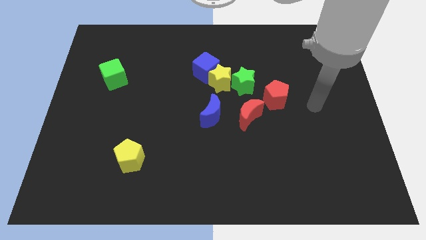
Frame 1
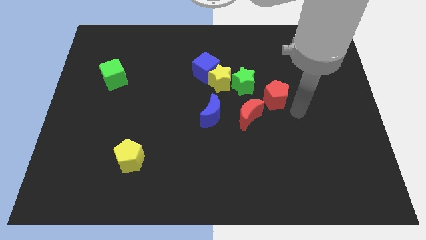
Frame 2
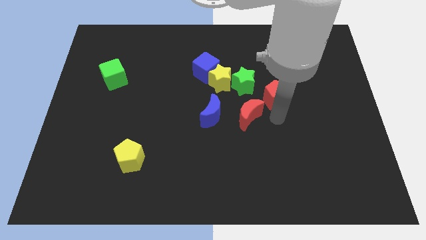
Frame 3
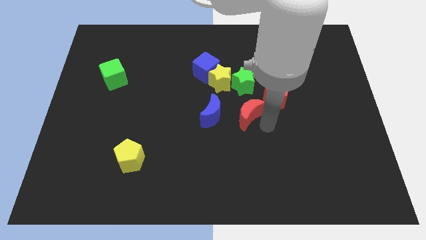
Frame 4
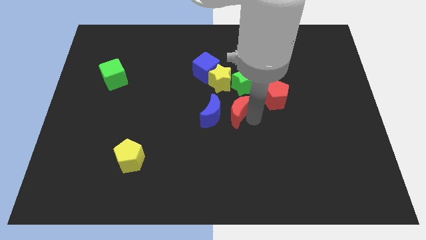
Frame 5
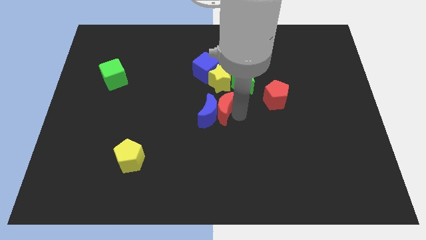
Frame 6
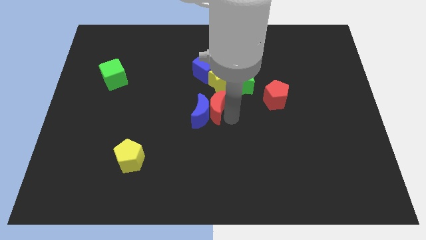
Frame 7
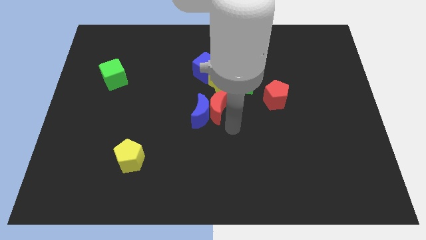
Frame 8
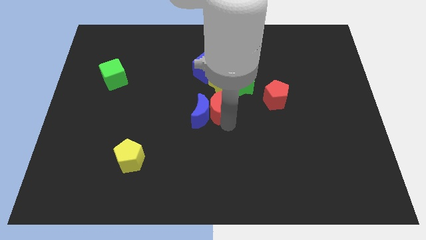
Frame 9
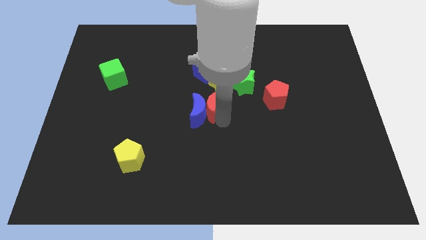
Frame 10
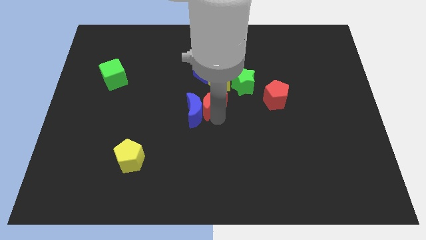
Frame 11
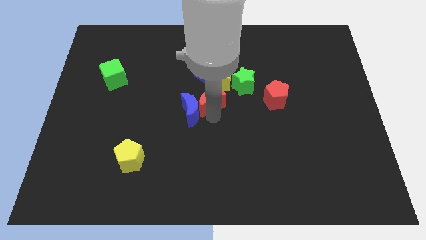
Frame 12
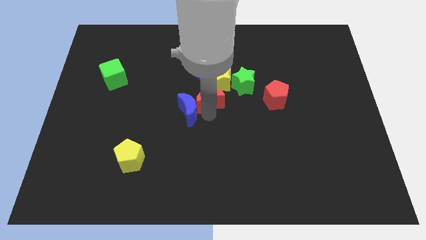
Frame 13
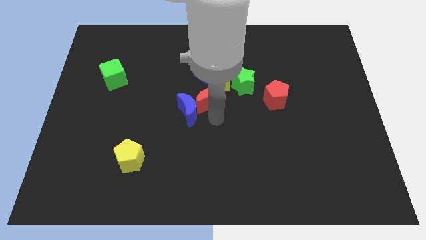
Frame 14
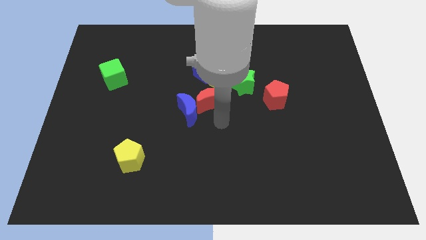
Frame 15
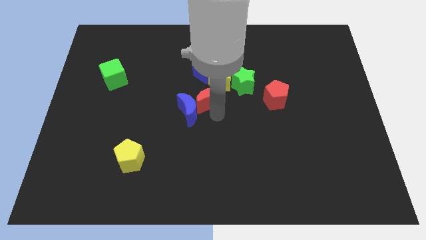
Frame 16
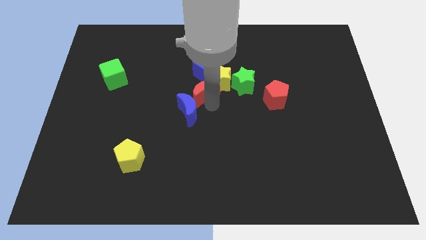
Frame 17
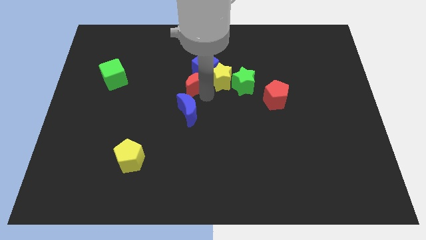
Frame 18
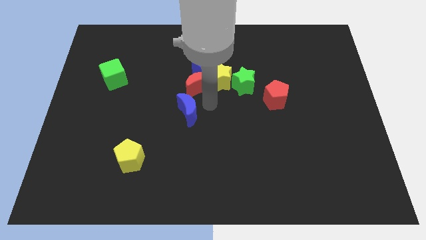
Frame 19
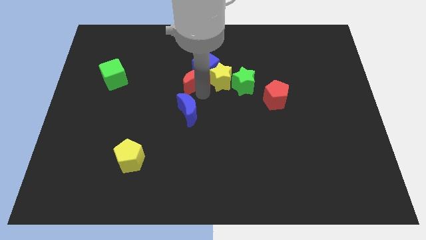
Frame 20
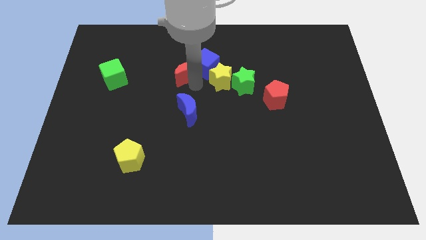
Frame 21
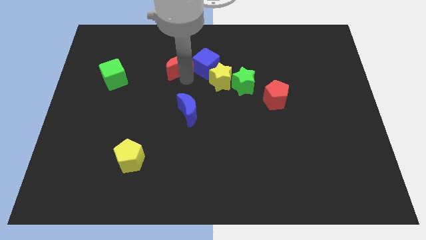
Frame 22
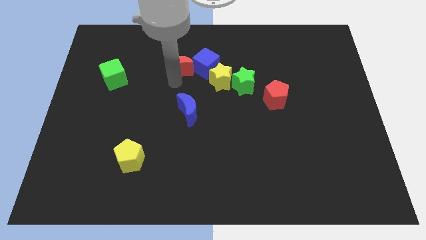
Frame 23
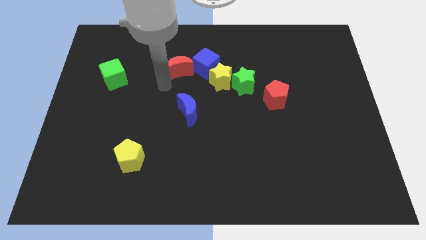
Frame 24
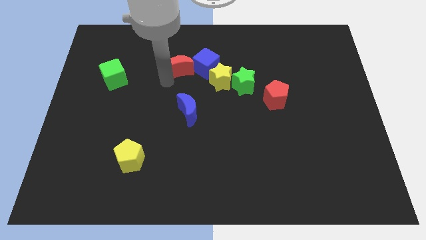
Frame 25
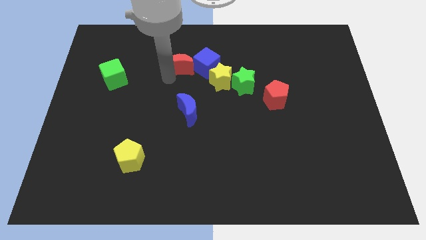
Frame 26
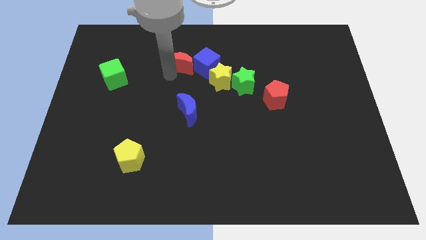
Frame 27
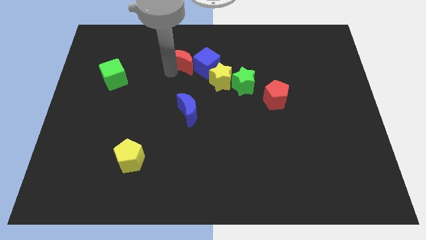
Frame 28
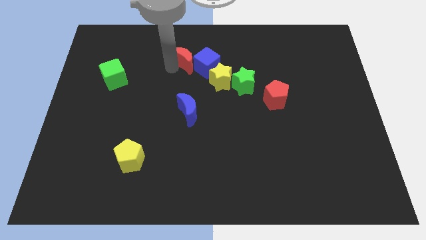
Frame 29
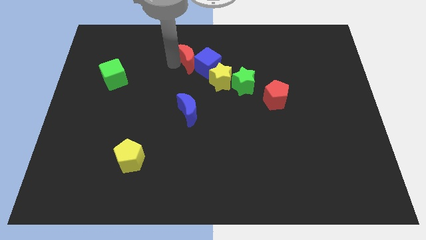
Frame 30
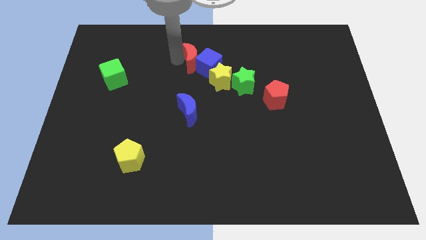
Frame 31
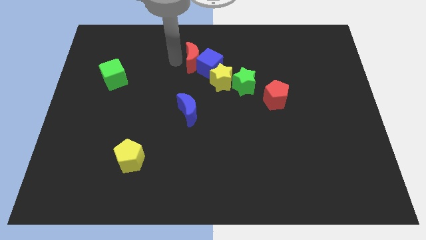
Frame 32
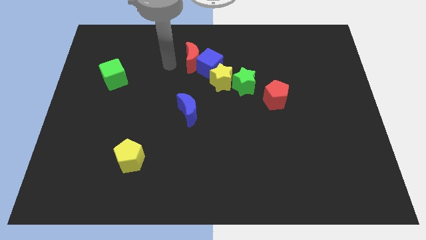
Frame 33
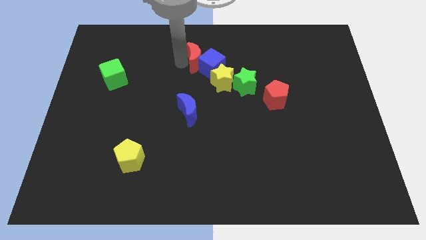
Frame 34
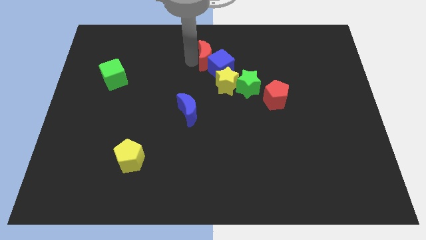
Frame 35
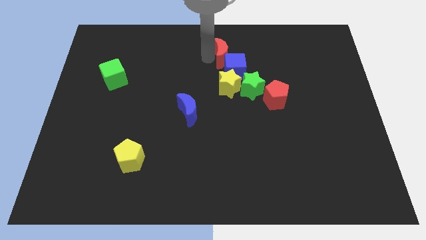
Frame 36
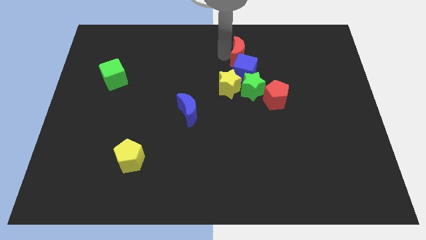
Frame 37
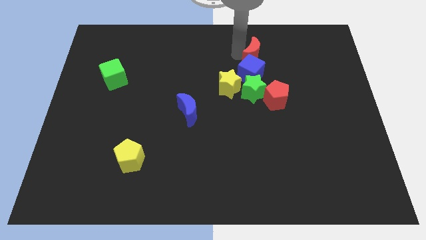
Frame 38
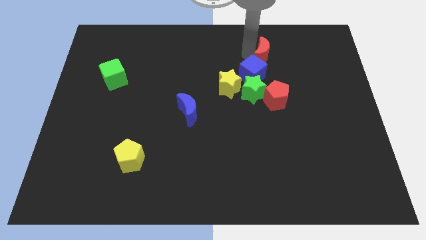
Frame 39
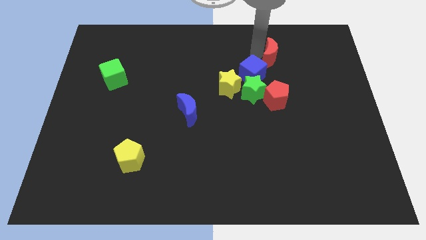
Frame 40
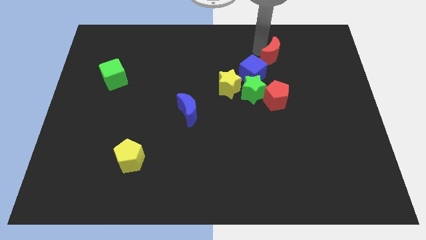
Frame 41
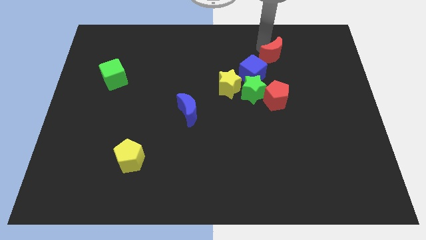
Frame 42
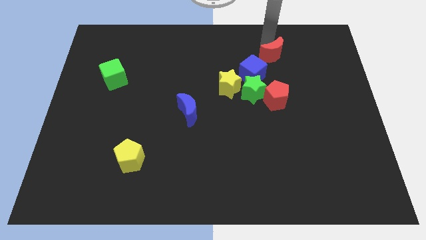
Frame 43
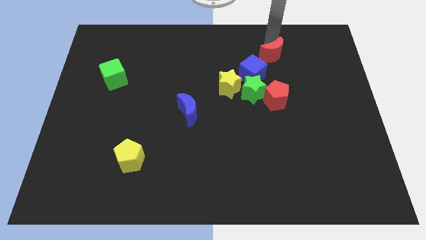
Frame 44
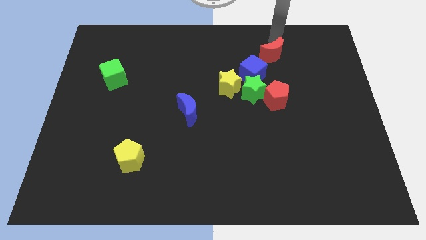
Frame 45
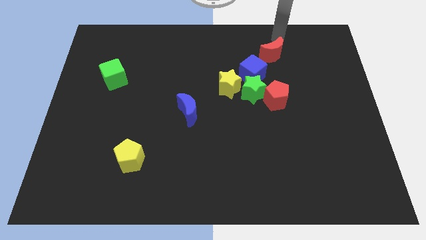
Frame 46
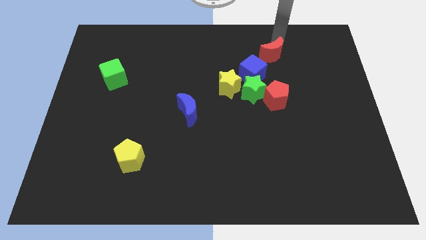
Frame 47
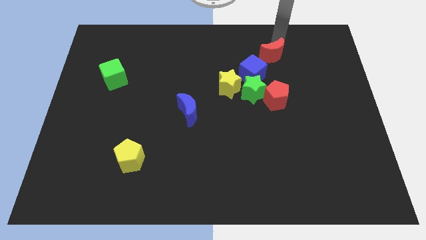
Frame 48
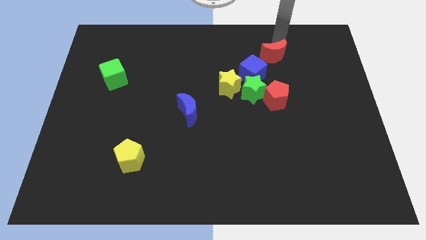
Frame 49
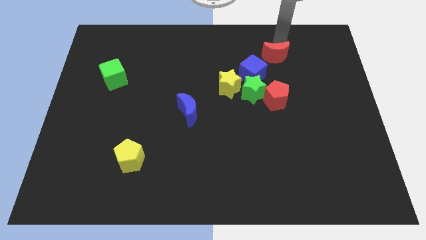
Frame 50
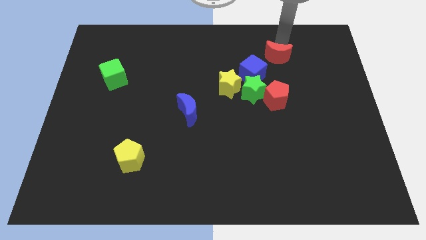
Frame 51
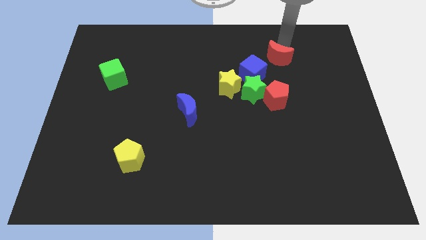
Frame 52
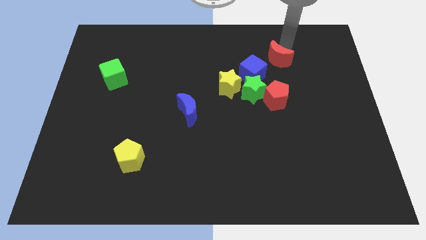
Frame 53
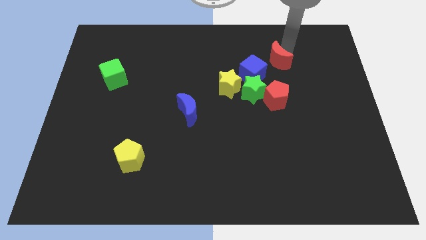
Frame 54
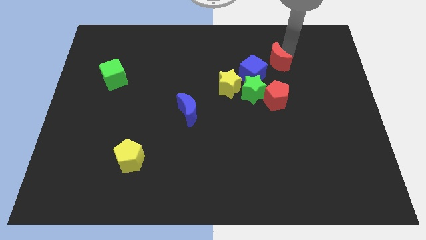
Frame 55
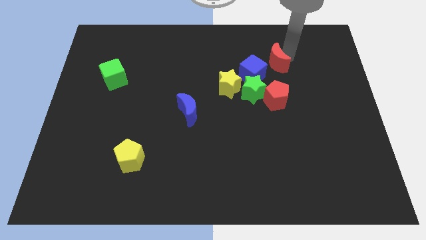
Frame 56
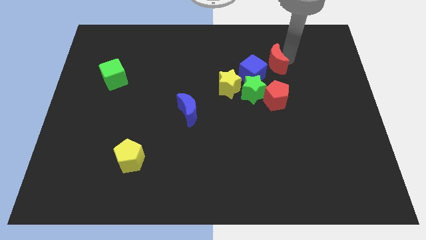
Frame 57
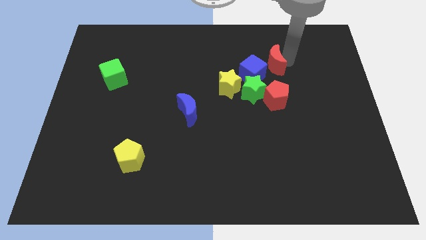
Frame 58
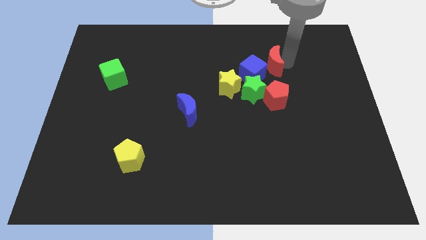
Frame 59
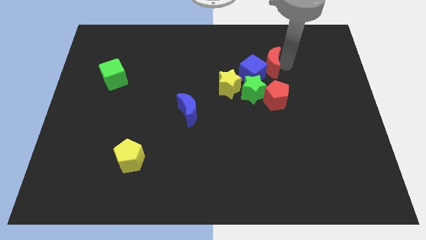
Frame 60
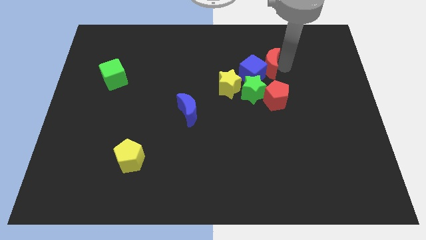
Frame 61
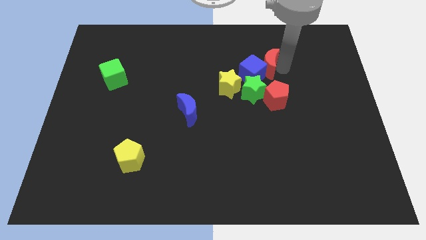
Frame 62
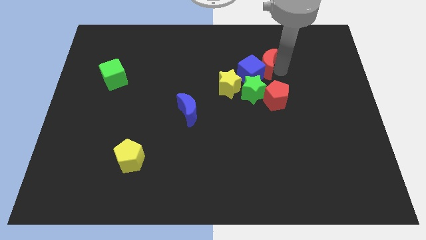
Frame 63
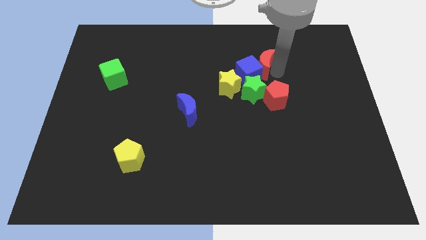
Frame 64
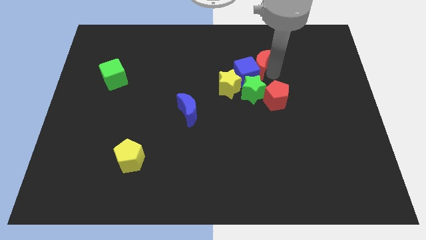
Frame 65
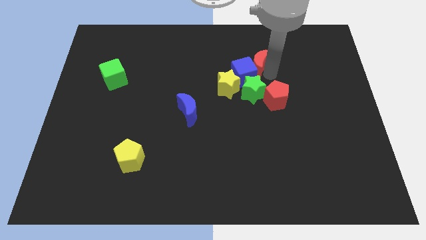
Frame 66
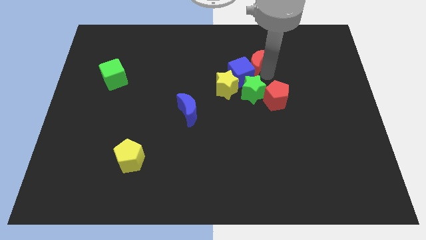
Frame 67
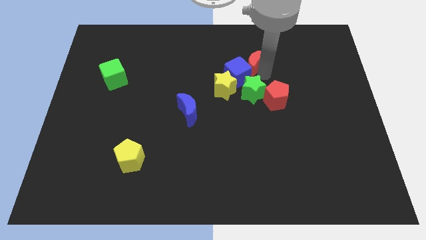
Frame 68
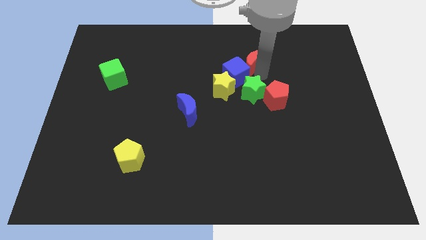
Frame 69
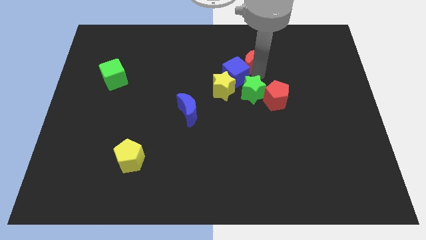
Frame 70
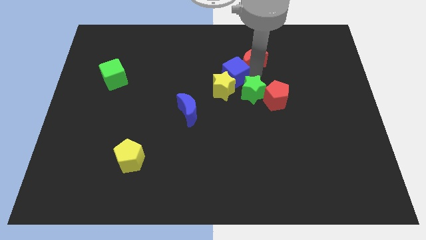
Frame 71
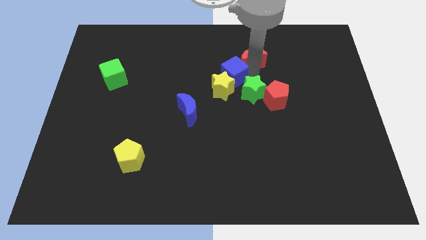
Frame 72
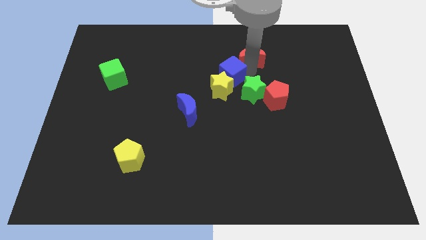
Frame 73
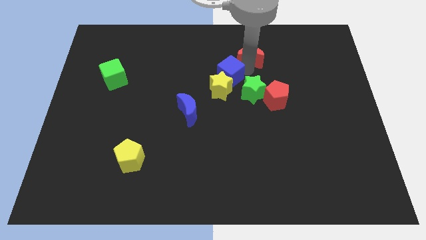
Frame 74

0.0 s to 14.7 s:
slide the red moon to the top right of the blue cube
